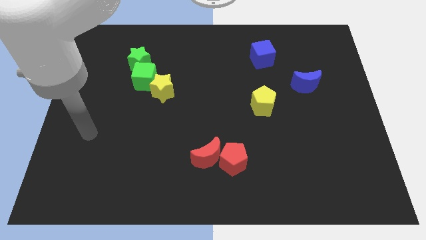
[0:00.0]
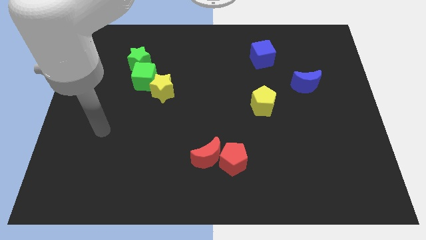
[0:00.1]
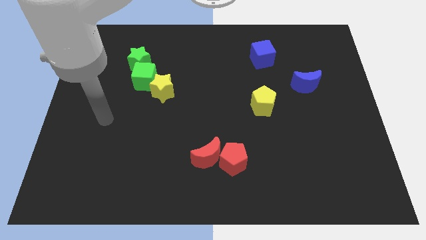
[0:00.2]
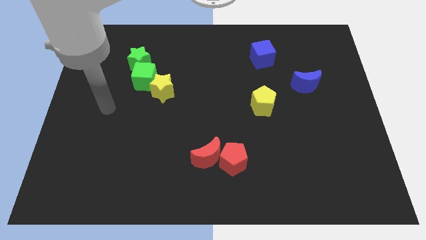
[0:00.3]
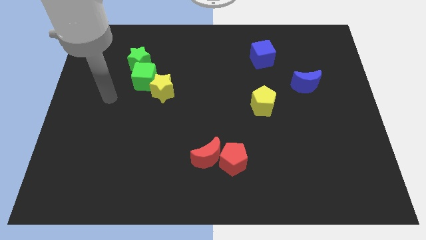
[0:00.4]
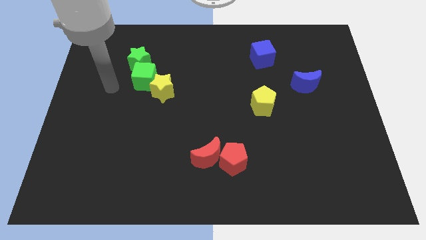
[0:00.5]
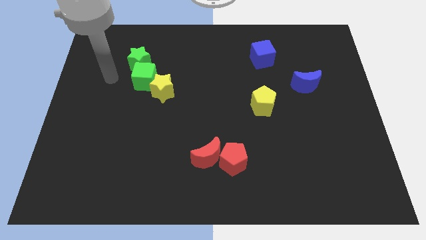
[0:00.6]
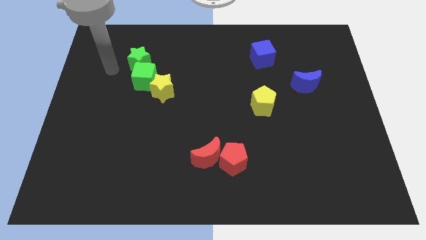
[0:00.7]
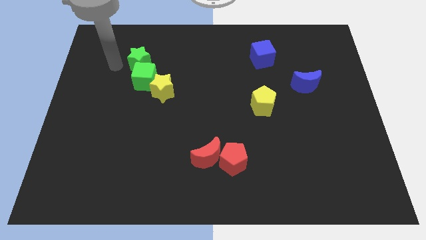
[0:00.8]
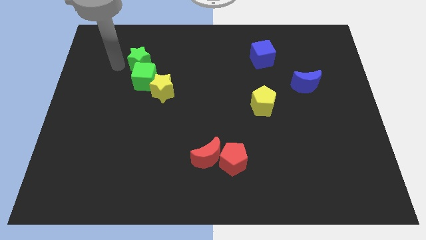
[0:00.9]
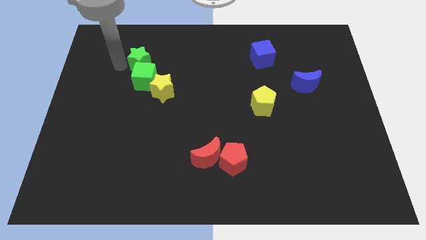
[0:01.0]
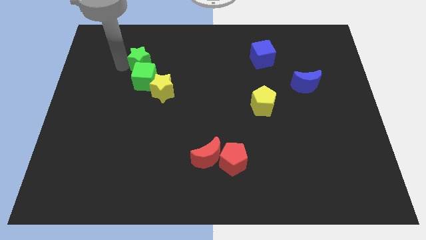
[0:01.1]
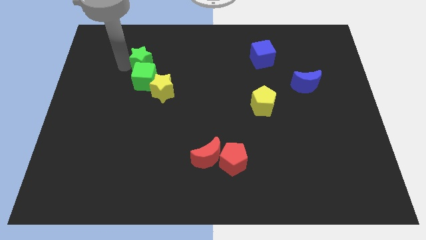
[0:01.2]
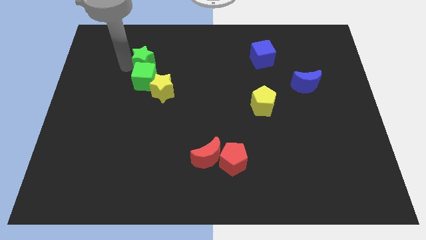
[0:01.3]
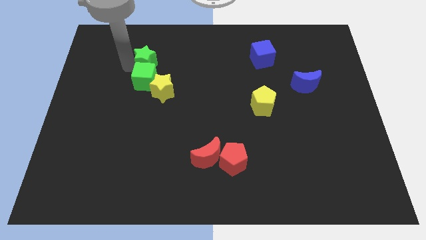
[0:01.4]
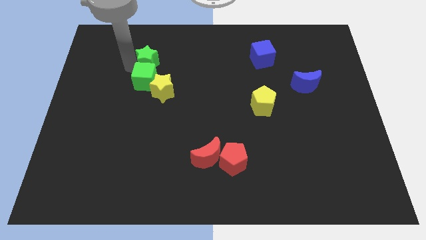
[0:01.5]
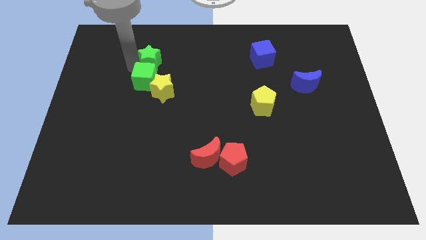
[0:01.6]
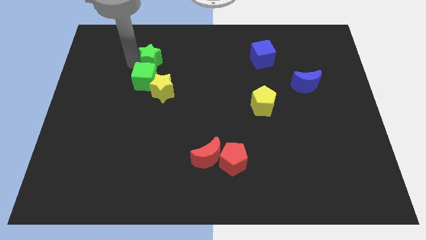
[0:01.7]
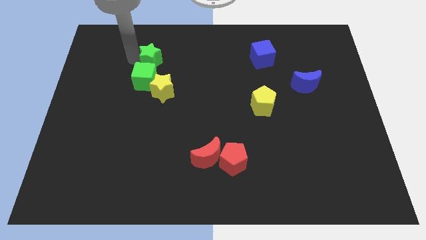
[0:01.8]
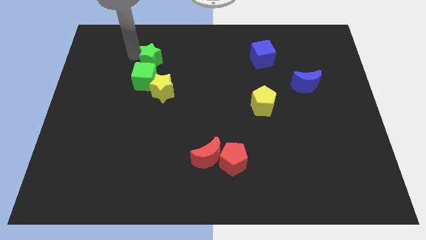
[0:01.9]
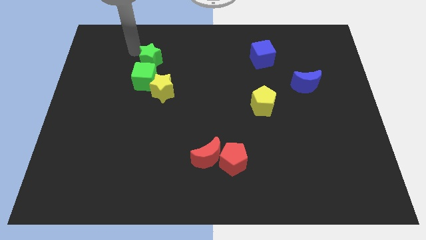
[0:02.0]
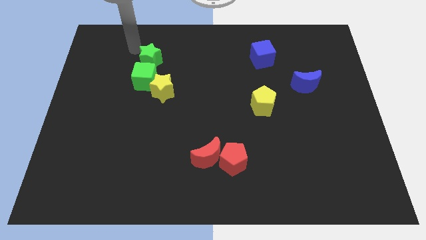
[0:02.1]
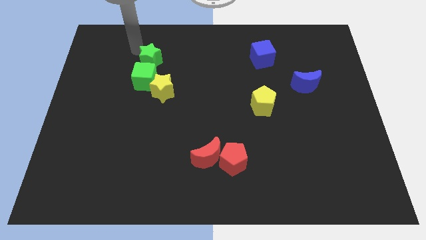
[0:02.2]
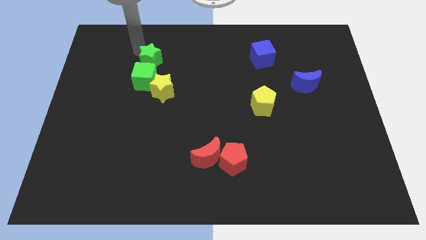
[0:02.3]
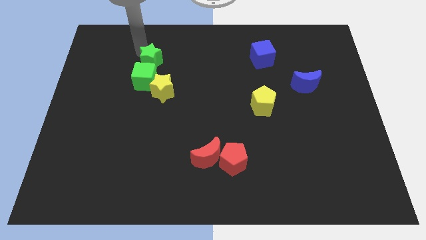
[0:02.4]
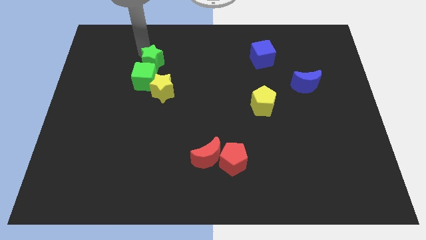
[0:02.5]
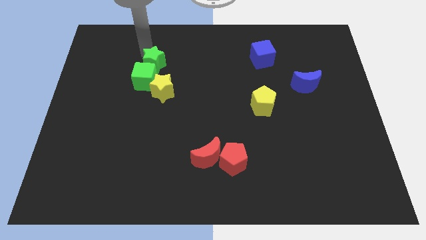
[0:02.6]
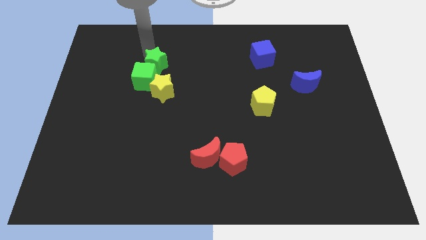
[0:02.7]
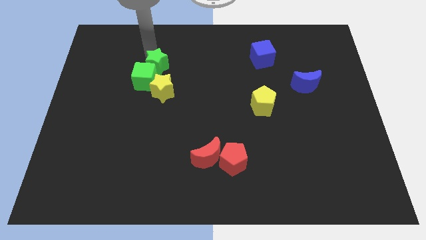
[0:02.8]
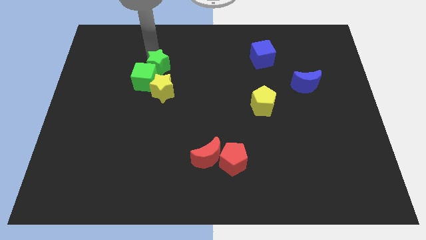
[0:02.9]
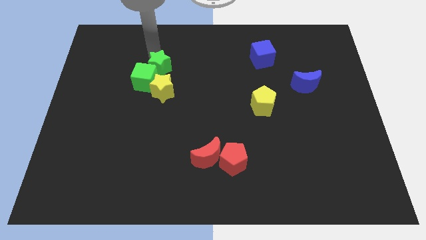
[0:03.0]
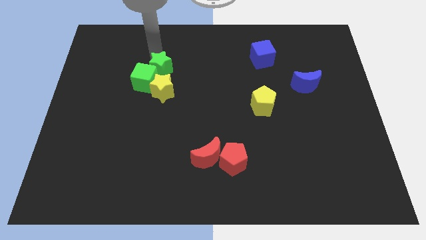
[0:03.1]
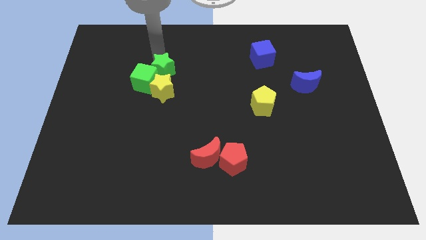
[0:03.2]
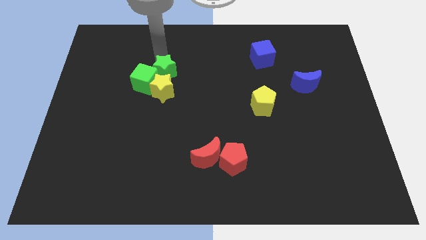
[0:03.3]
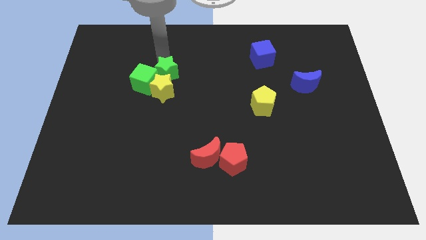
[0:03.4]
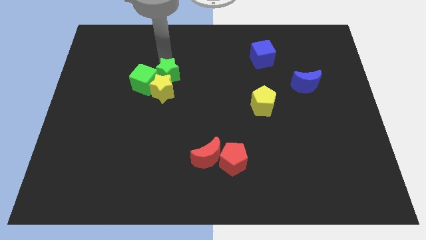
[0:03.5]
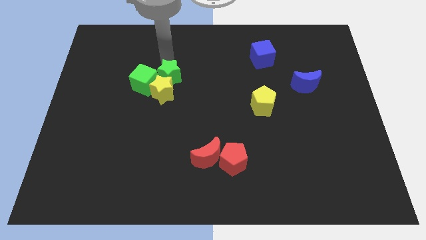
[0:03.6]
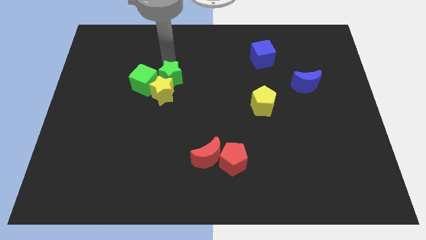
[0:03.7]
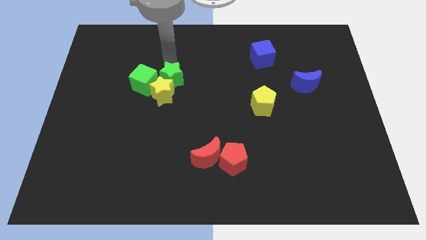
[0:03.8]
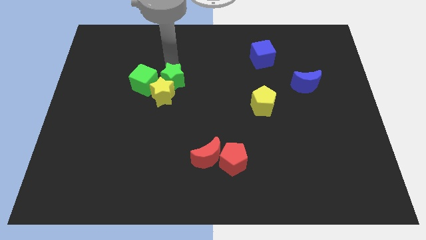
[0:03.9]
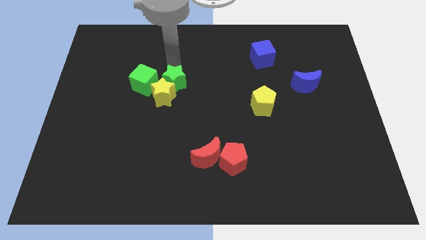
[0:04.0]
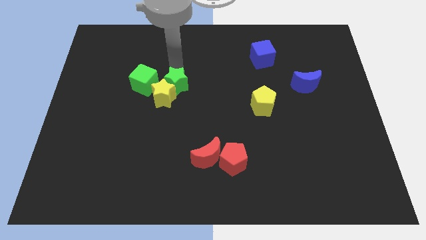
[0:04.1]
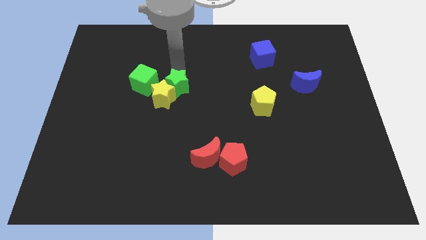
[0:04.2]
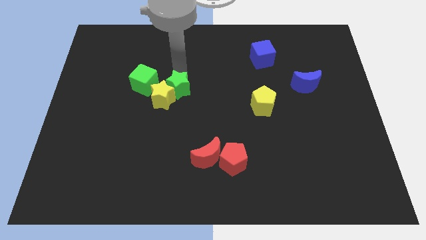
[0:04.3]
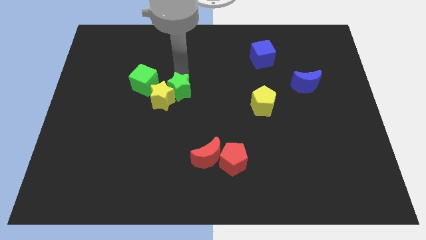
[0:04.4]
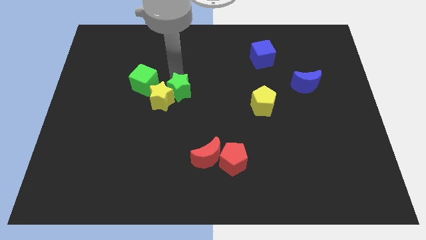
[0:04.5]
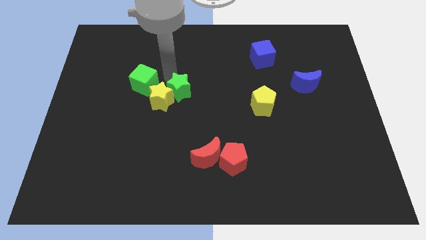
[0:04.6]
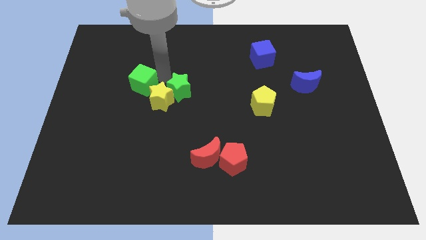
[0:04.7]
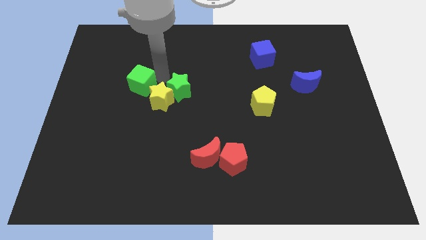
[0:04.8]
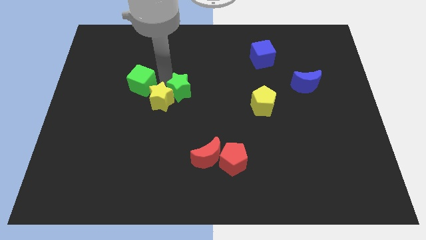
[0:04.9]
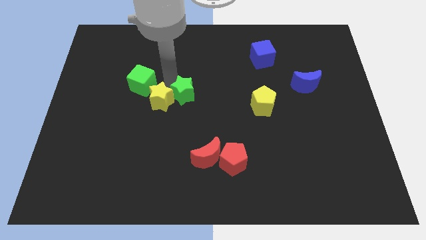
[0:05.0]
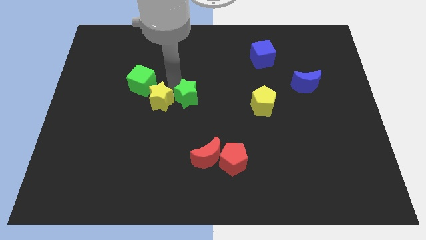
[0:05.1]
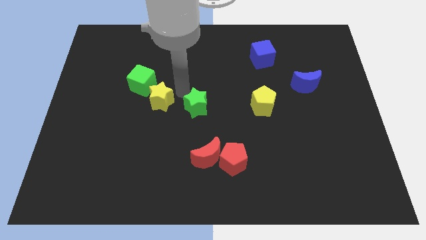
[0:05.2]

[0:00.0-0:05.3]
push the green star diagonally downwards and right

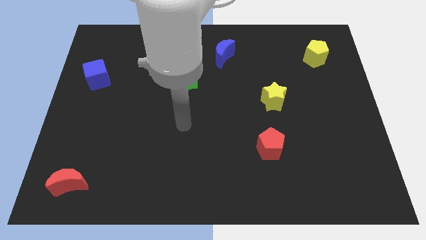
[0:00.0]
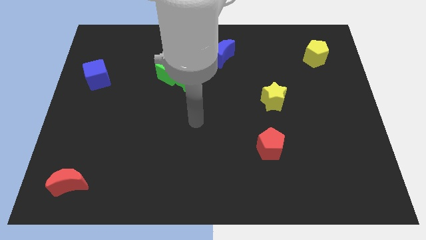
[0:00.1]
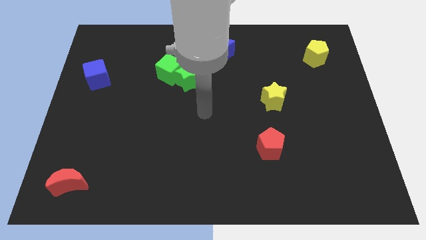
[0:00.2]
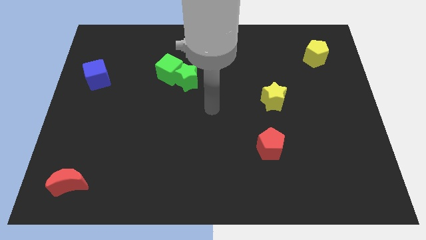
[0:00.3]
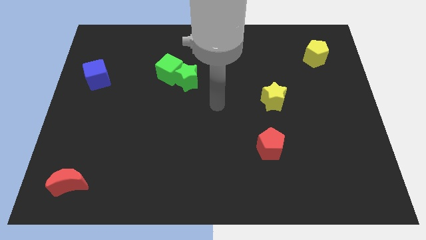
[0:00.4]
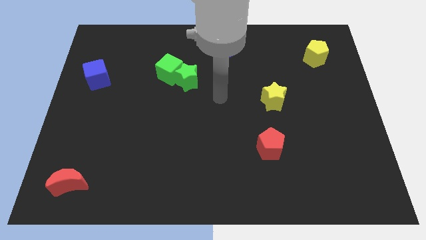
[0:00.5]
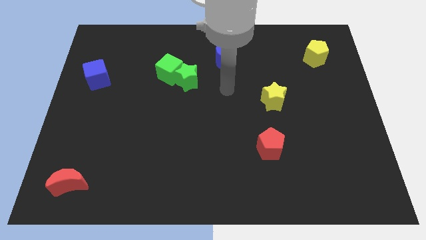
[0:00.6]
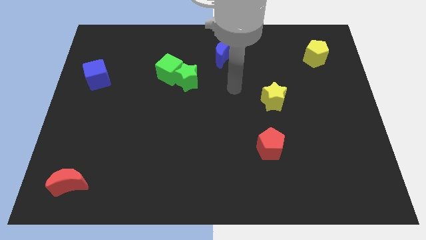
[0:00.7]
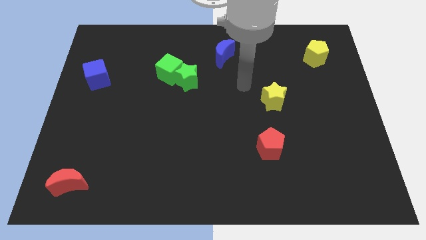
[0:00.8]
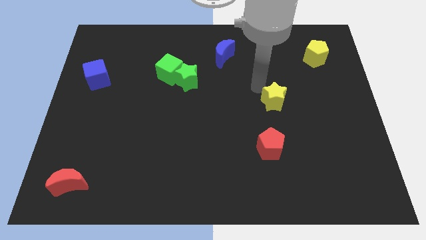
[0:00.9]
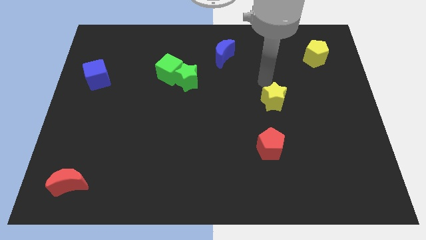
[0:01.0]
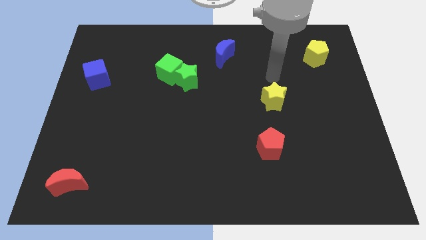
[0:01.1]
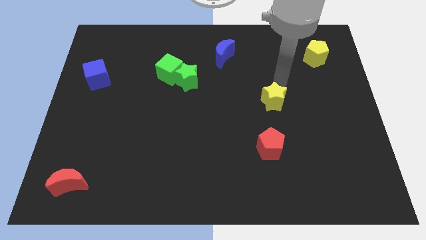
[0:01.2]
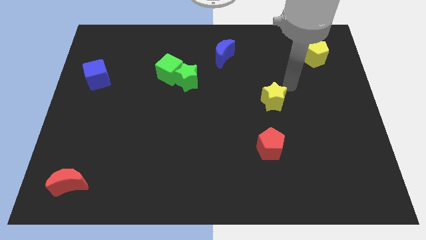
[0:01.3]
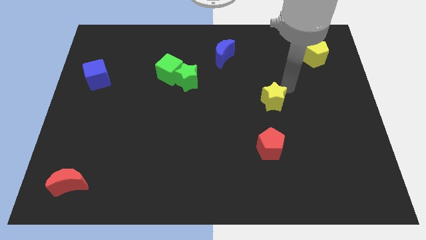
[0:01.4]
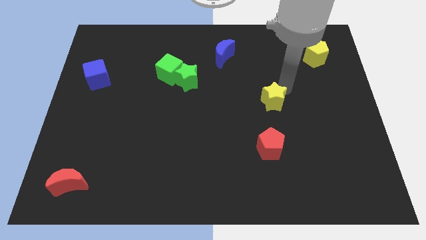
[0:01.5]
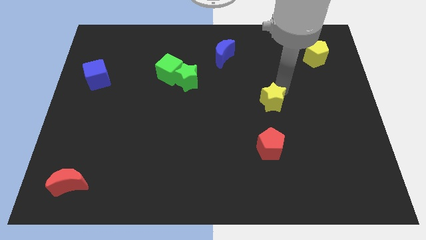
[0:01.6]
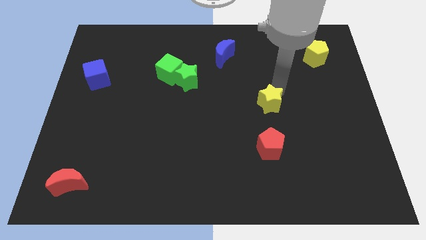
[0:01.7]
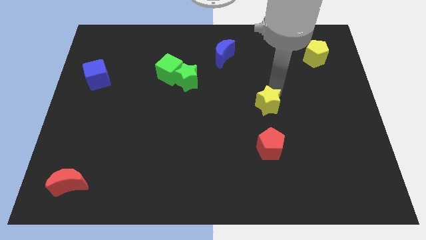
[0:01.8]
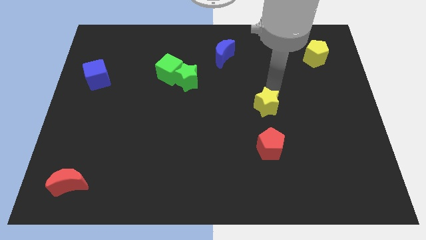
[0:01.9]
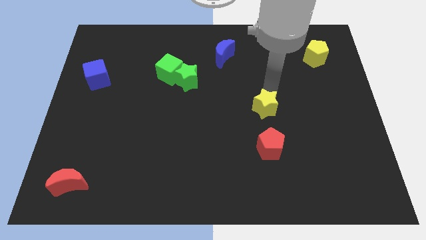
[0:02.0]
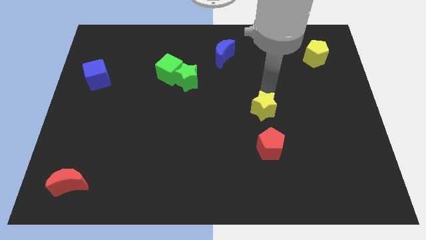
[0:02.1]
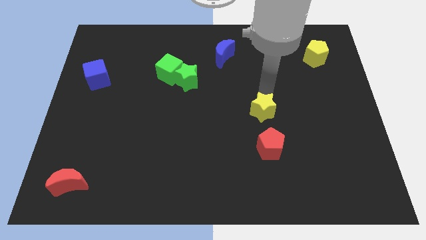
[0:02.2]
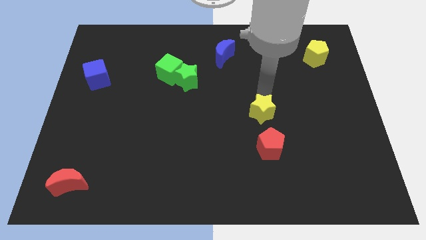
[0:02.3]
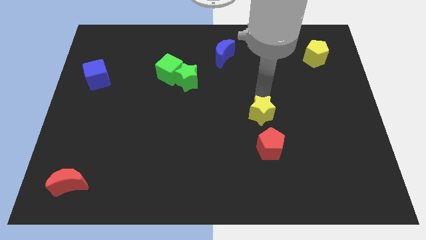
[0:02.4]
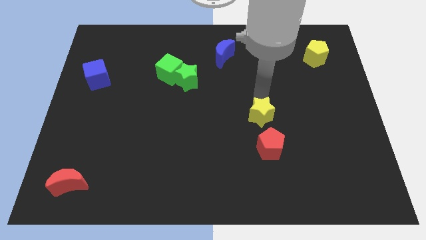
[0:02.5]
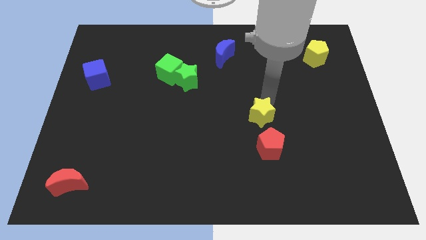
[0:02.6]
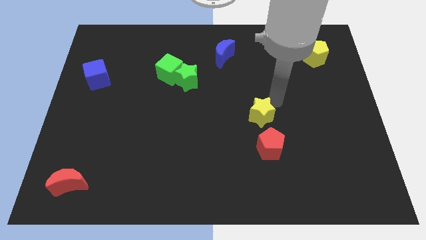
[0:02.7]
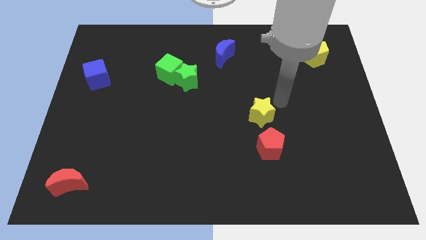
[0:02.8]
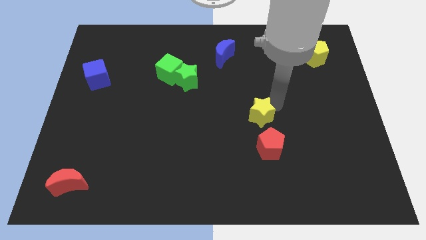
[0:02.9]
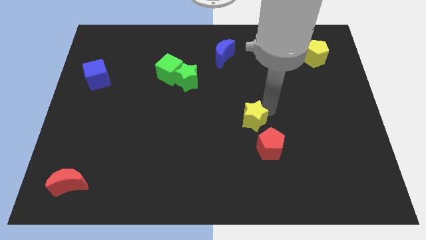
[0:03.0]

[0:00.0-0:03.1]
move the yellow star down and then to the left somewhat

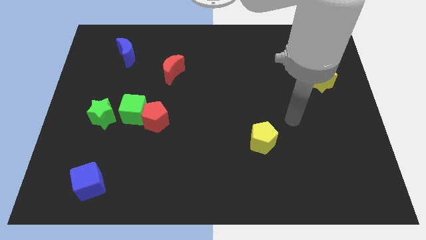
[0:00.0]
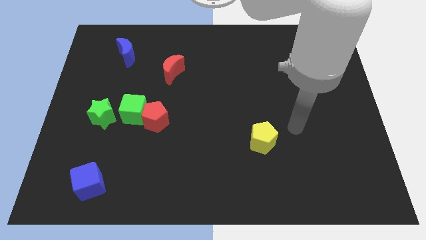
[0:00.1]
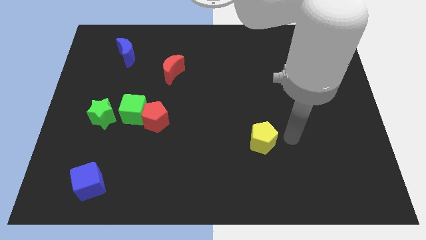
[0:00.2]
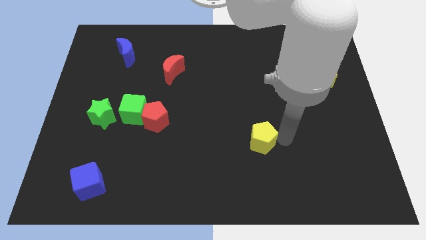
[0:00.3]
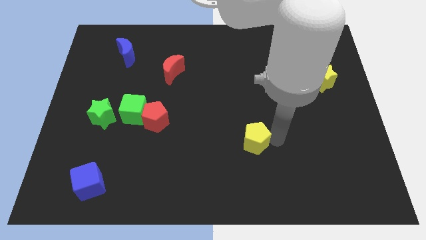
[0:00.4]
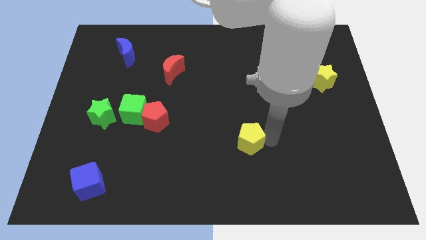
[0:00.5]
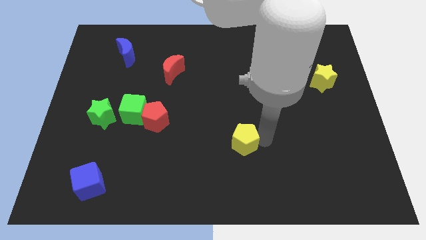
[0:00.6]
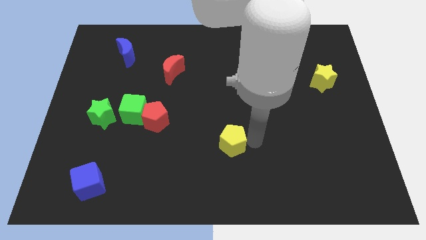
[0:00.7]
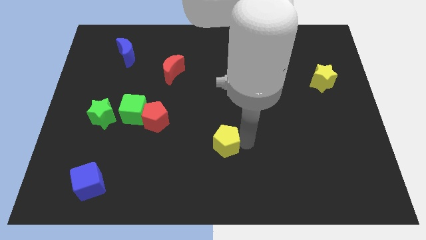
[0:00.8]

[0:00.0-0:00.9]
slightly slide the yellow pentagon left
